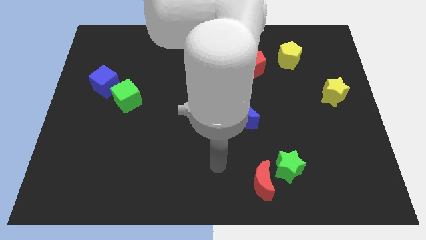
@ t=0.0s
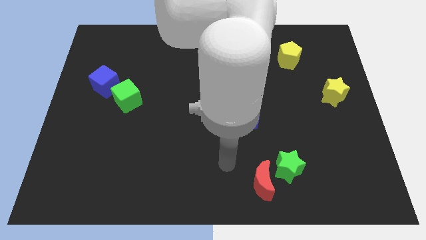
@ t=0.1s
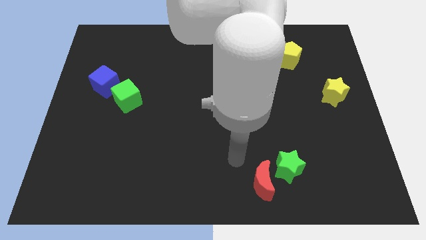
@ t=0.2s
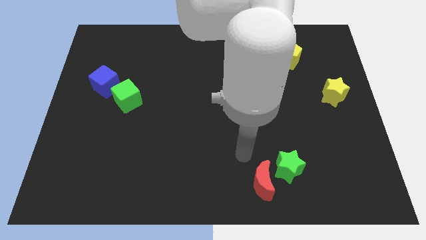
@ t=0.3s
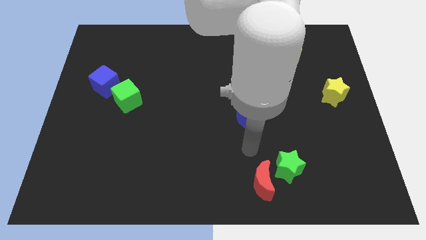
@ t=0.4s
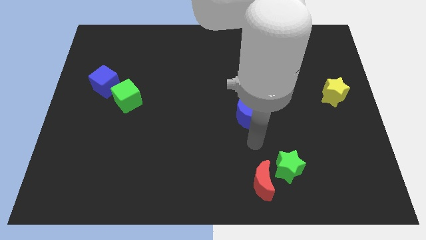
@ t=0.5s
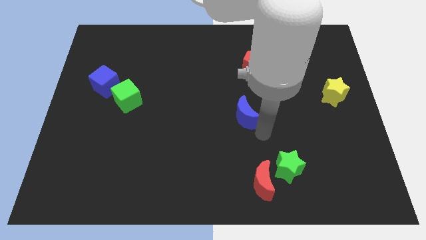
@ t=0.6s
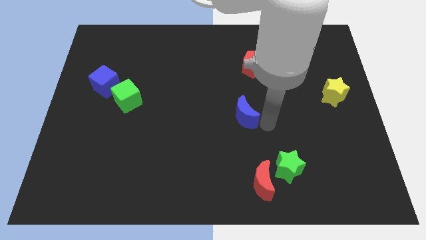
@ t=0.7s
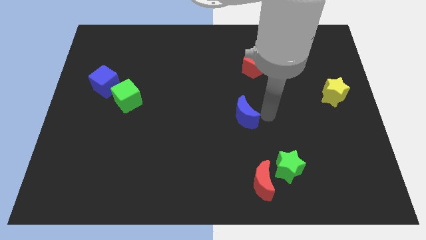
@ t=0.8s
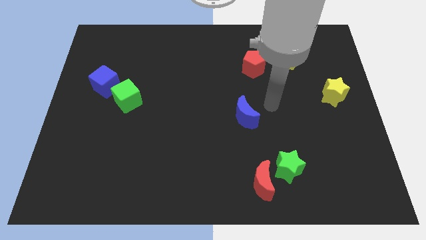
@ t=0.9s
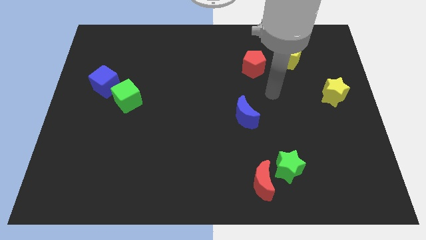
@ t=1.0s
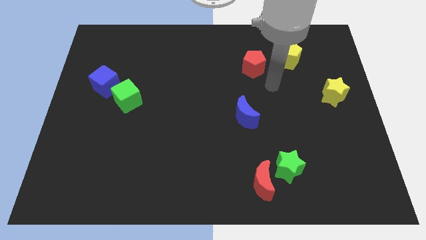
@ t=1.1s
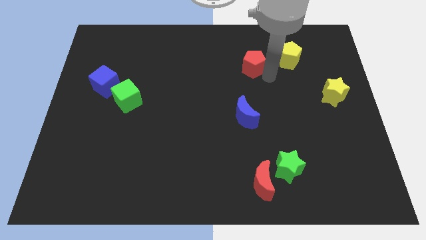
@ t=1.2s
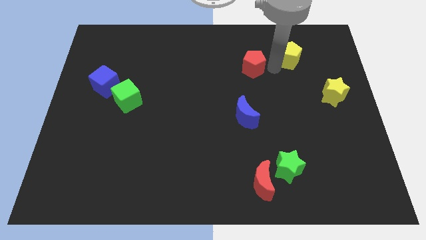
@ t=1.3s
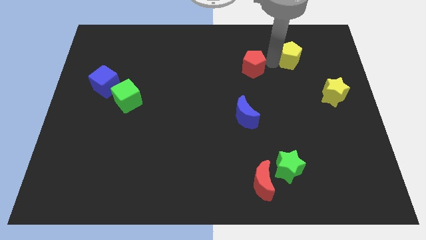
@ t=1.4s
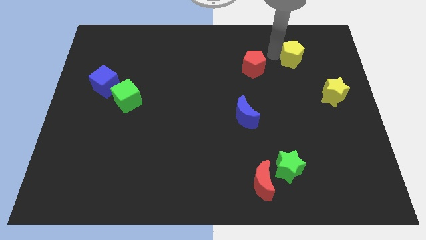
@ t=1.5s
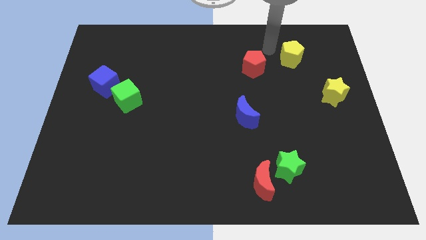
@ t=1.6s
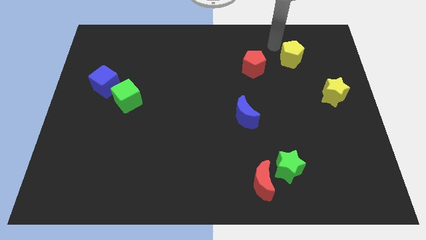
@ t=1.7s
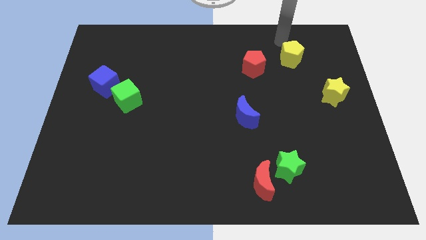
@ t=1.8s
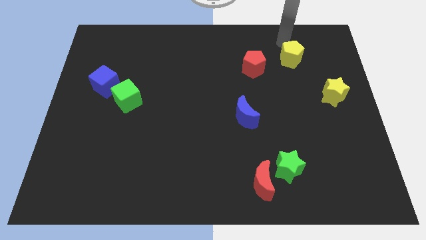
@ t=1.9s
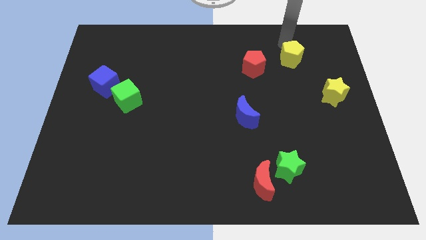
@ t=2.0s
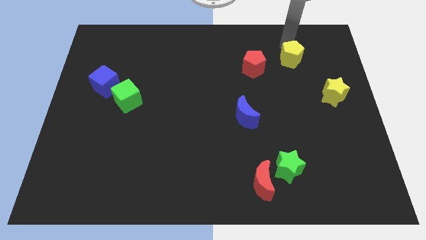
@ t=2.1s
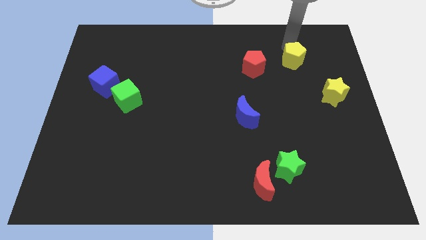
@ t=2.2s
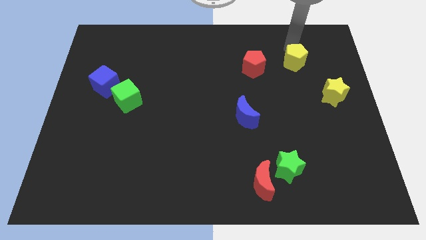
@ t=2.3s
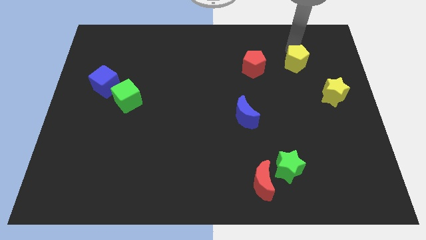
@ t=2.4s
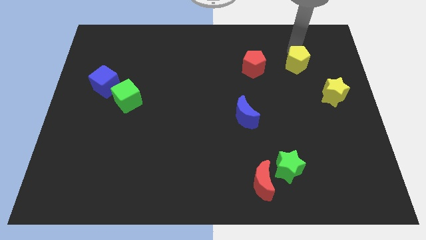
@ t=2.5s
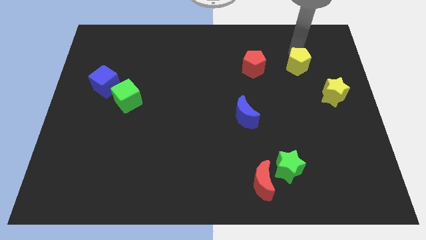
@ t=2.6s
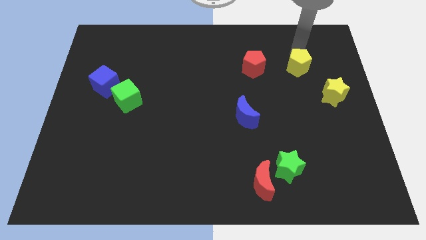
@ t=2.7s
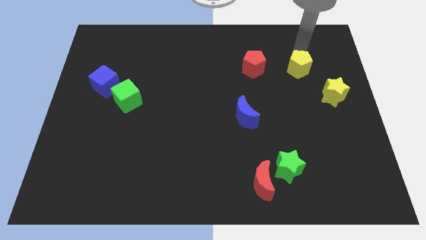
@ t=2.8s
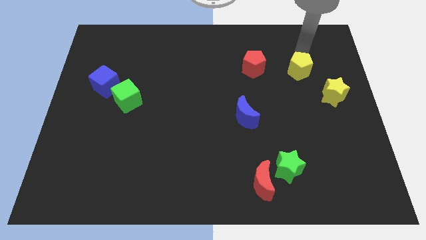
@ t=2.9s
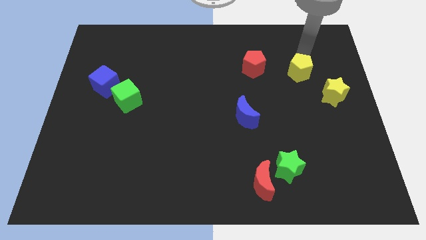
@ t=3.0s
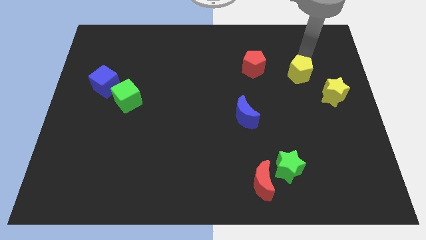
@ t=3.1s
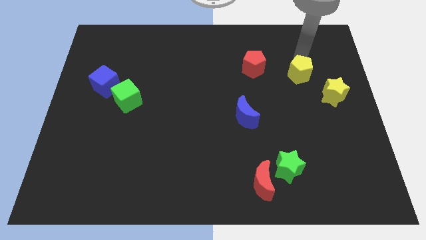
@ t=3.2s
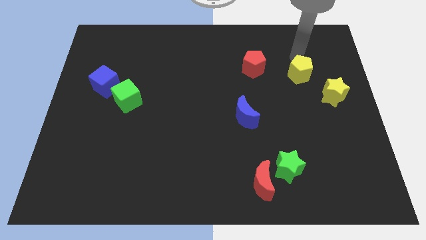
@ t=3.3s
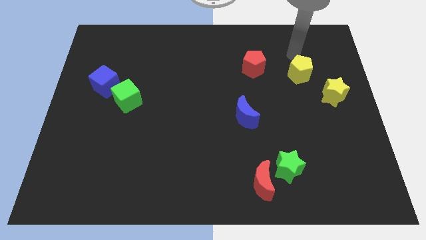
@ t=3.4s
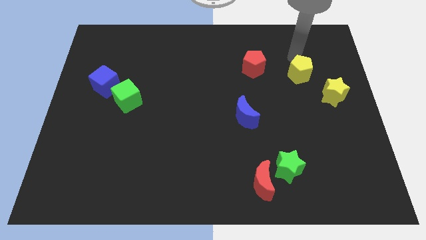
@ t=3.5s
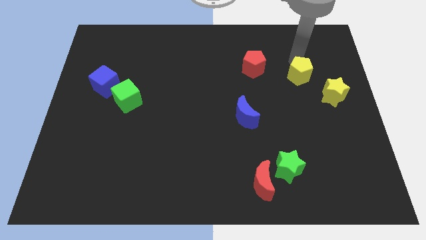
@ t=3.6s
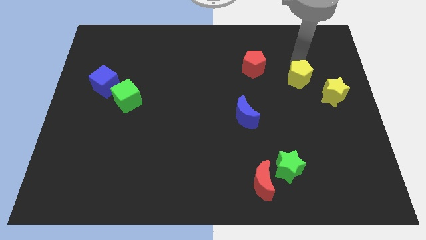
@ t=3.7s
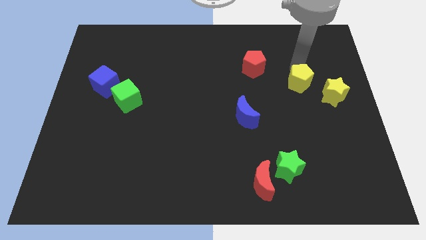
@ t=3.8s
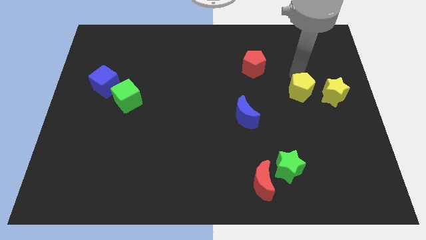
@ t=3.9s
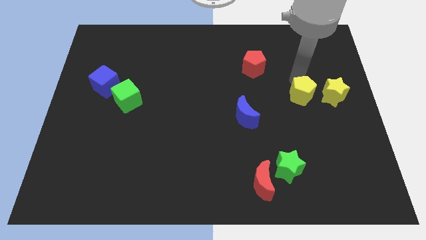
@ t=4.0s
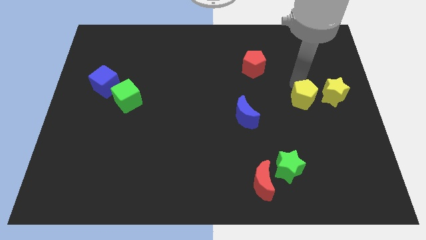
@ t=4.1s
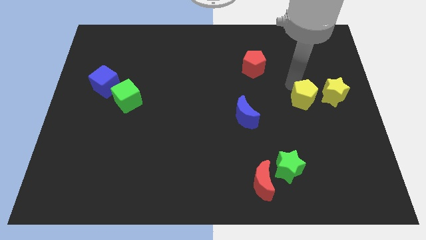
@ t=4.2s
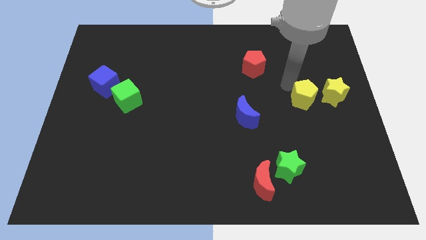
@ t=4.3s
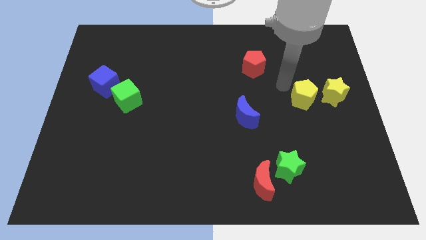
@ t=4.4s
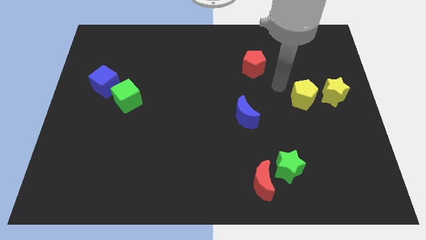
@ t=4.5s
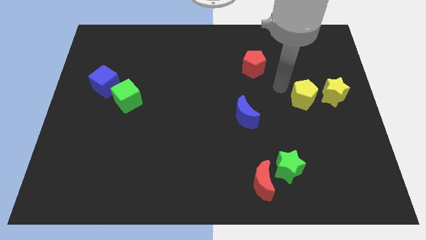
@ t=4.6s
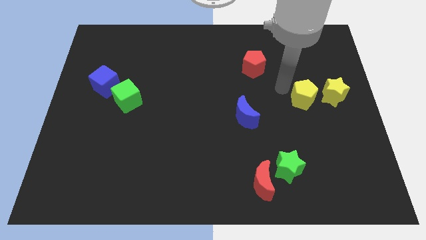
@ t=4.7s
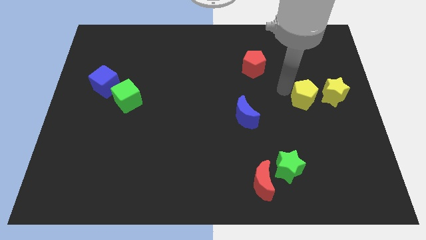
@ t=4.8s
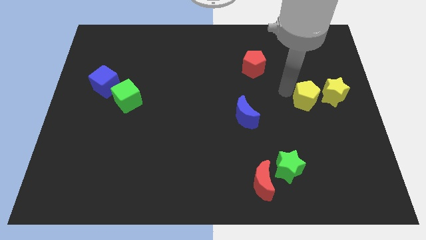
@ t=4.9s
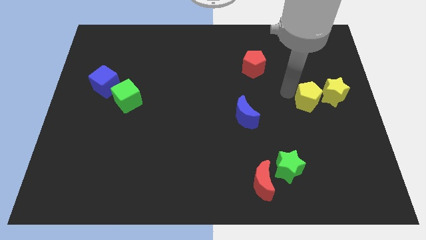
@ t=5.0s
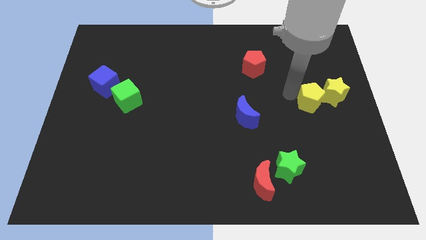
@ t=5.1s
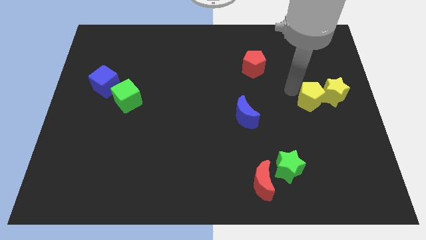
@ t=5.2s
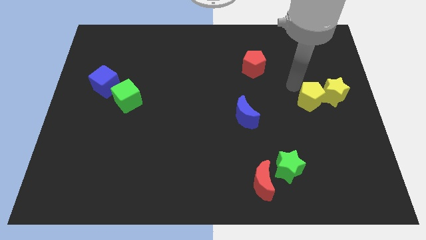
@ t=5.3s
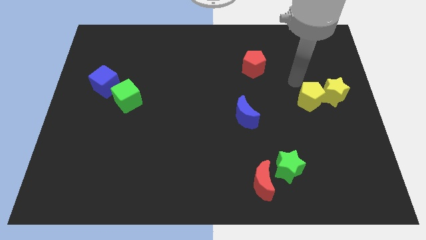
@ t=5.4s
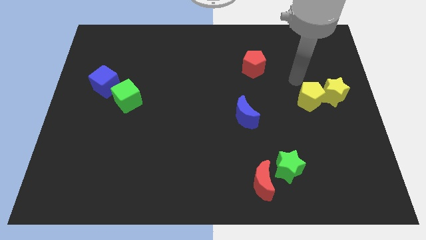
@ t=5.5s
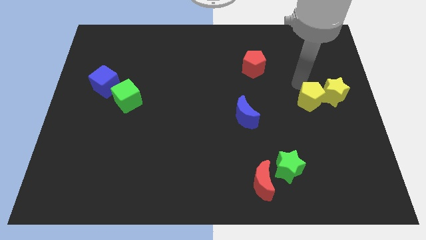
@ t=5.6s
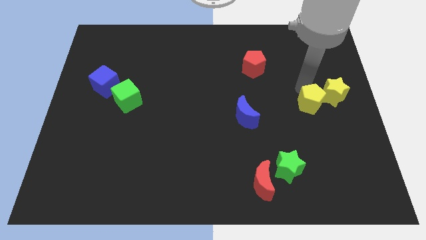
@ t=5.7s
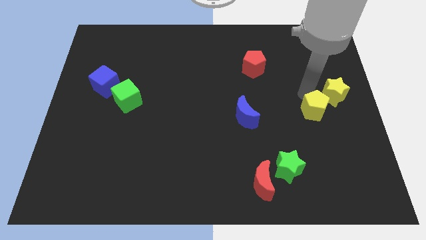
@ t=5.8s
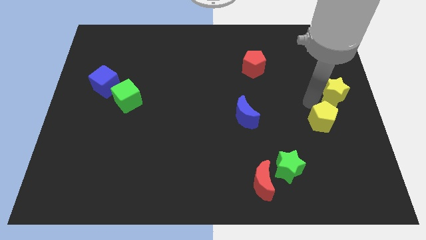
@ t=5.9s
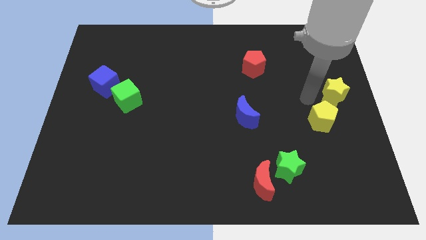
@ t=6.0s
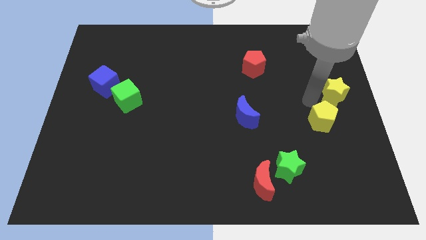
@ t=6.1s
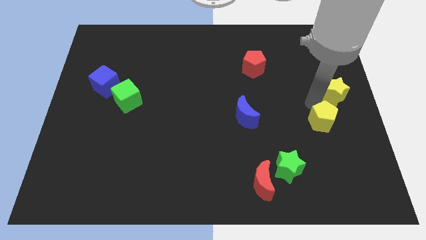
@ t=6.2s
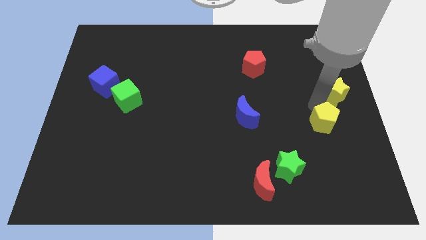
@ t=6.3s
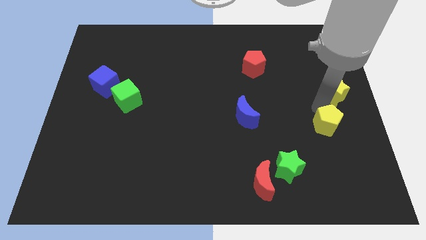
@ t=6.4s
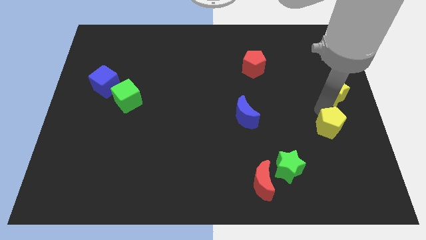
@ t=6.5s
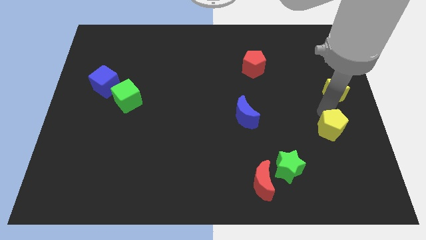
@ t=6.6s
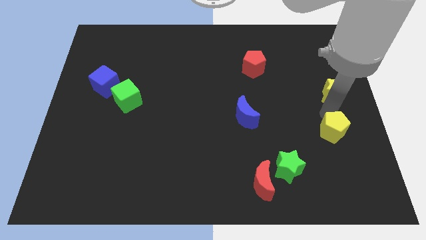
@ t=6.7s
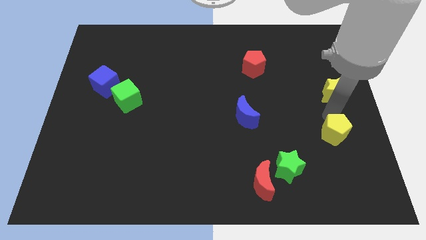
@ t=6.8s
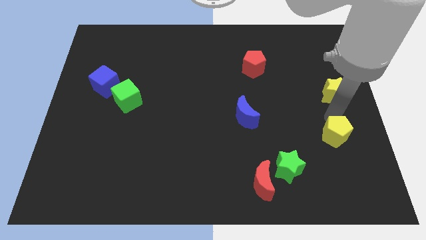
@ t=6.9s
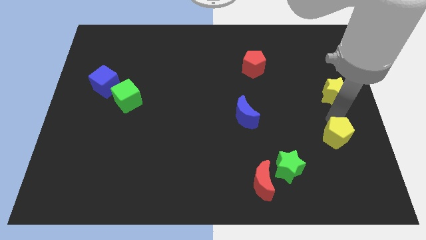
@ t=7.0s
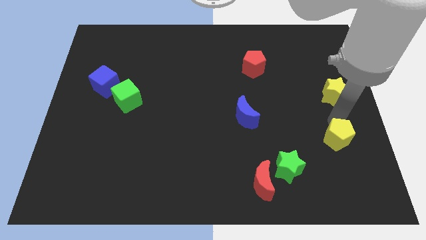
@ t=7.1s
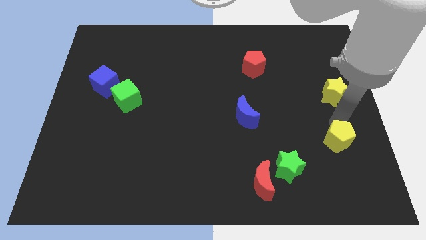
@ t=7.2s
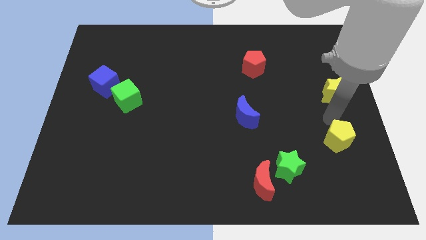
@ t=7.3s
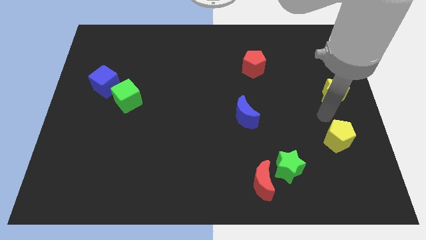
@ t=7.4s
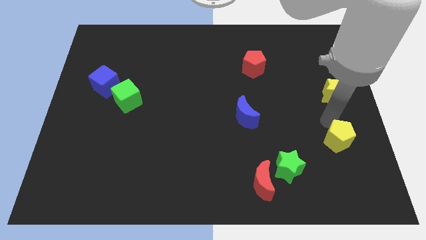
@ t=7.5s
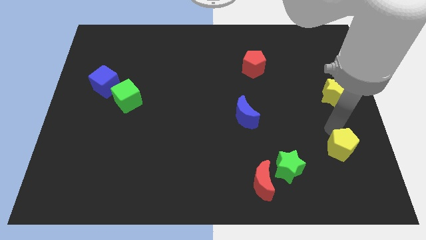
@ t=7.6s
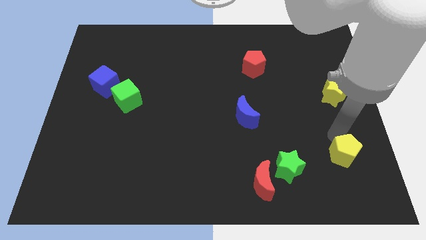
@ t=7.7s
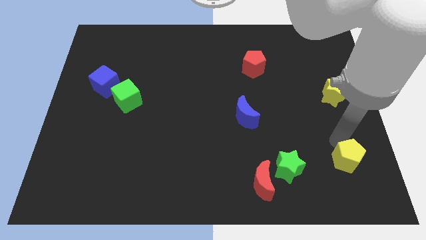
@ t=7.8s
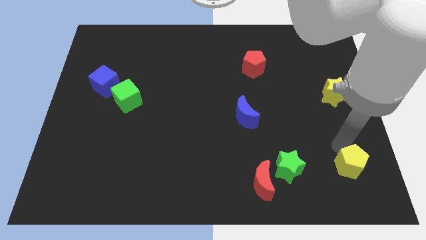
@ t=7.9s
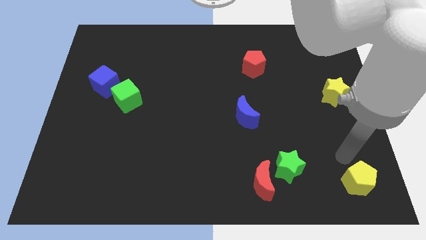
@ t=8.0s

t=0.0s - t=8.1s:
slide the yellow pentagon to the lower right corner
